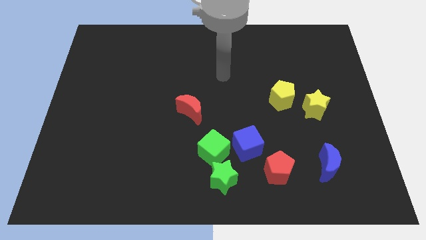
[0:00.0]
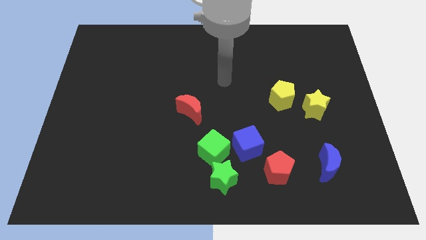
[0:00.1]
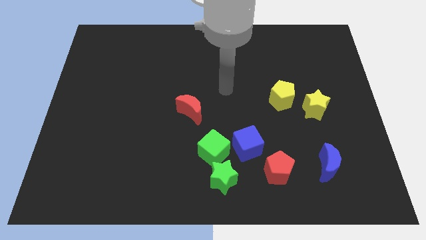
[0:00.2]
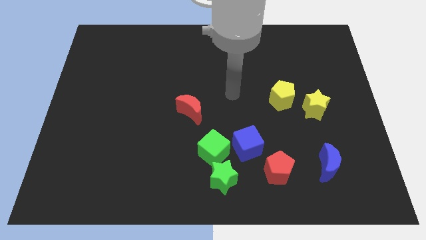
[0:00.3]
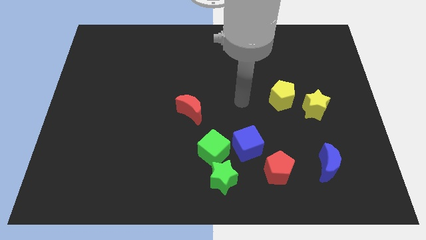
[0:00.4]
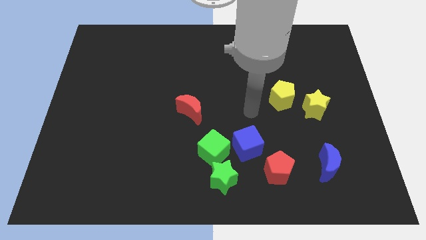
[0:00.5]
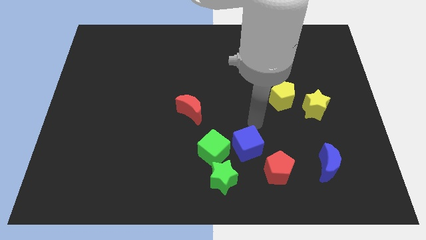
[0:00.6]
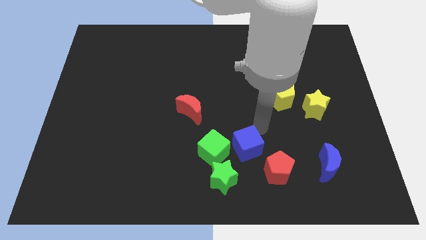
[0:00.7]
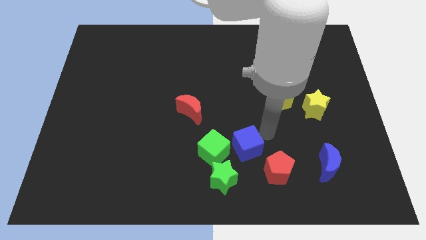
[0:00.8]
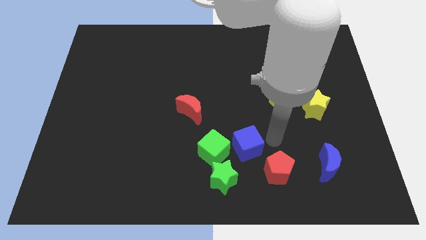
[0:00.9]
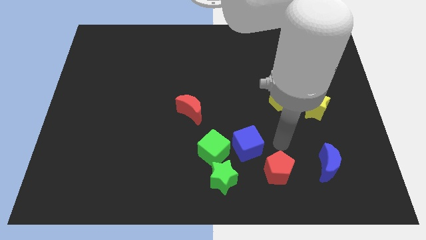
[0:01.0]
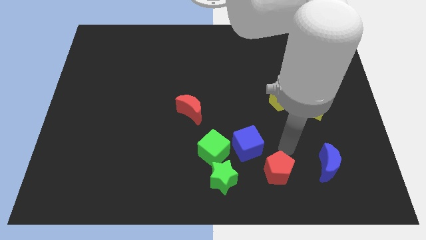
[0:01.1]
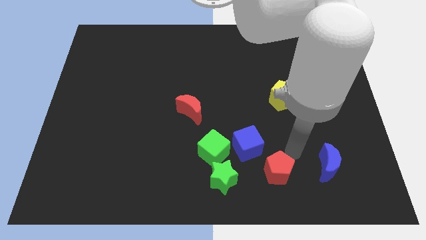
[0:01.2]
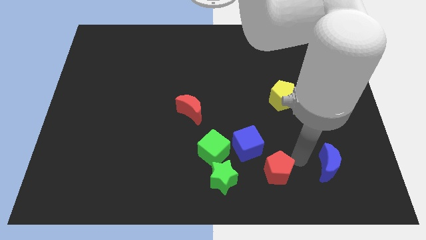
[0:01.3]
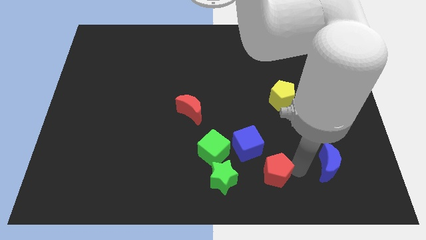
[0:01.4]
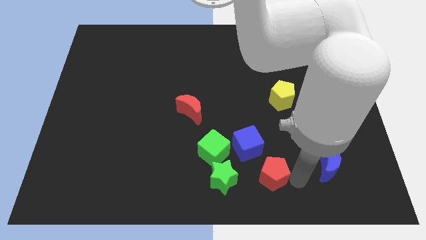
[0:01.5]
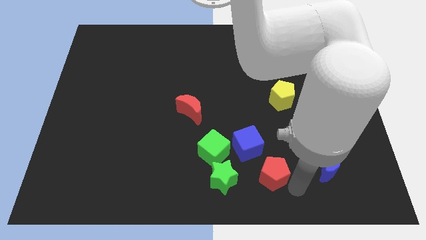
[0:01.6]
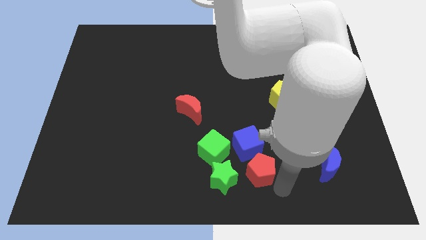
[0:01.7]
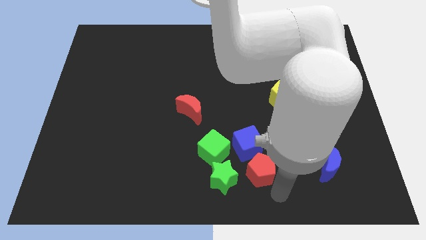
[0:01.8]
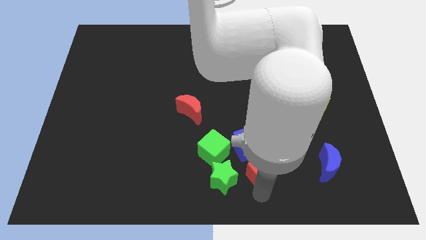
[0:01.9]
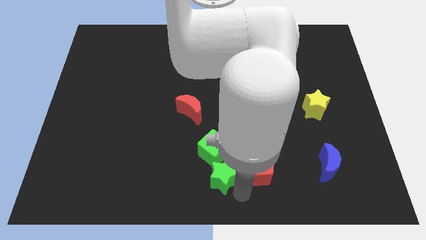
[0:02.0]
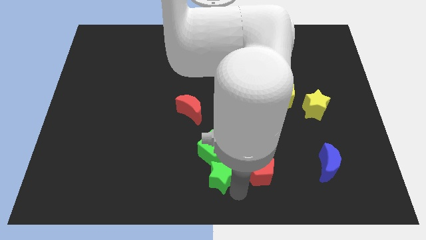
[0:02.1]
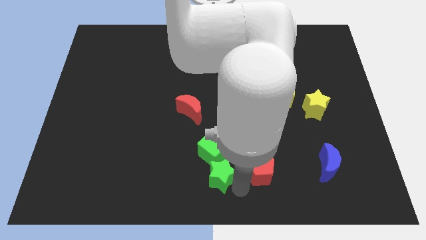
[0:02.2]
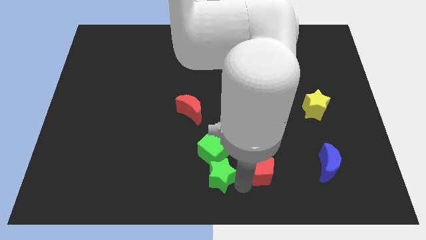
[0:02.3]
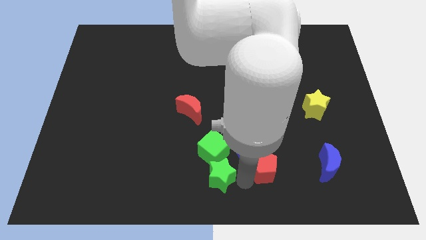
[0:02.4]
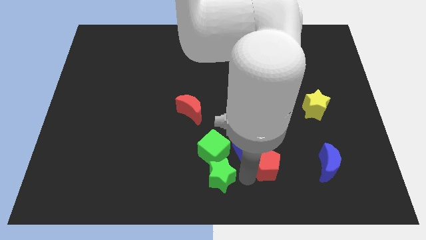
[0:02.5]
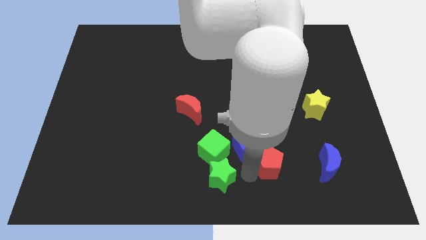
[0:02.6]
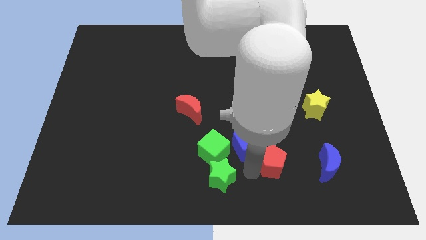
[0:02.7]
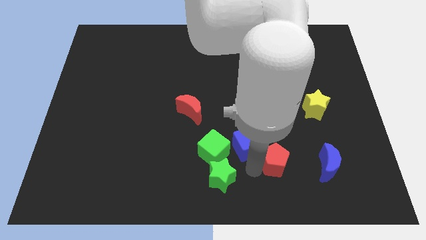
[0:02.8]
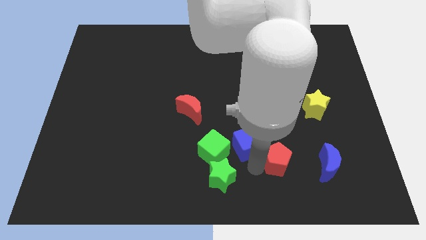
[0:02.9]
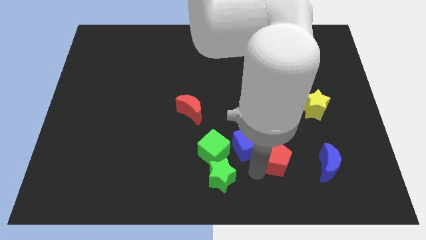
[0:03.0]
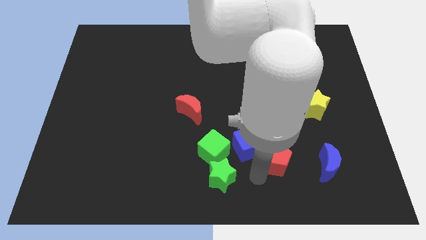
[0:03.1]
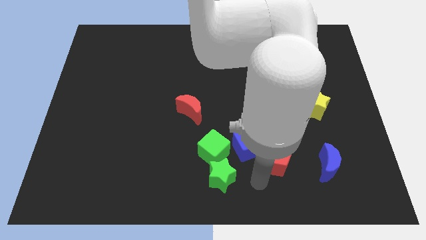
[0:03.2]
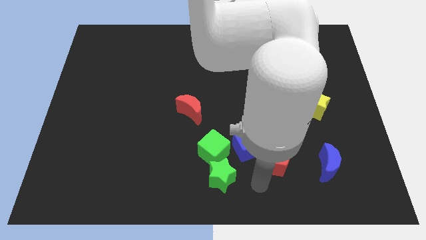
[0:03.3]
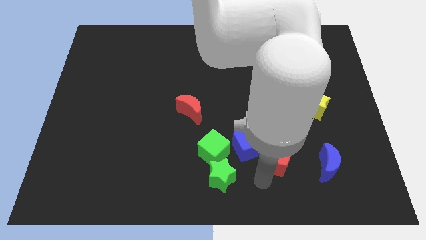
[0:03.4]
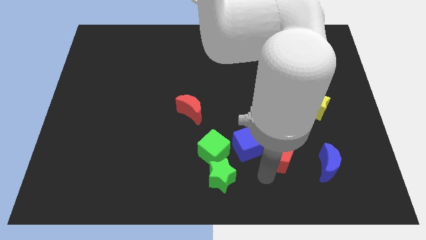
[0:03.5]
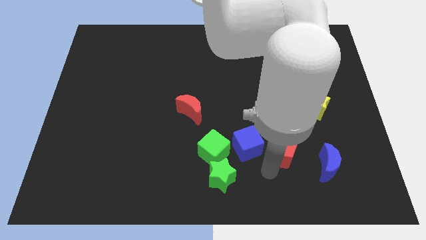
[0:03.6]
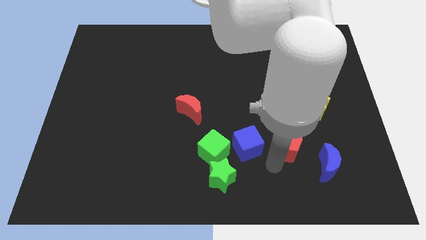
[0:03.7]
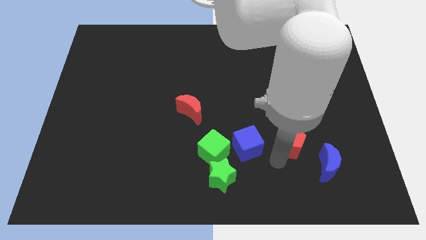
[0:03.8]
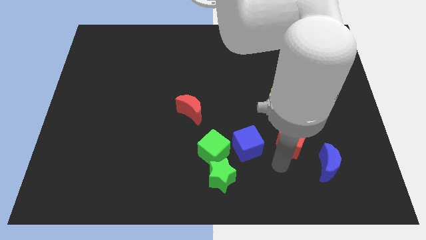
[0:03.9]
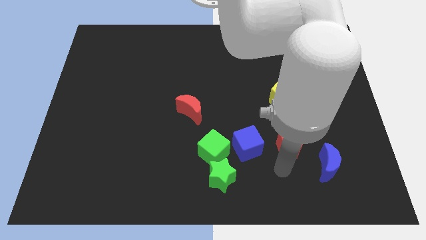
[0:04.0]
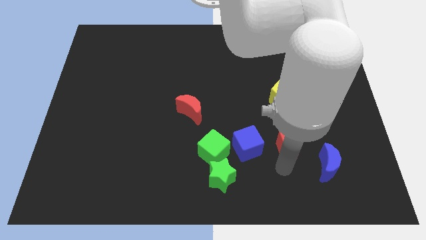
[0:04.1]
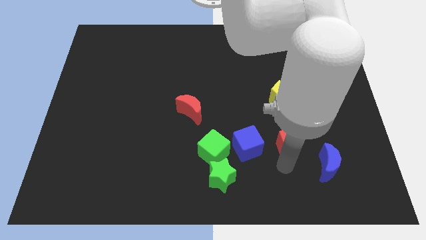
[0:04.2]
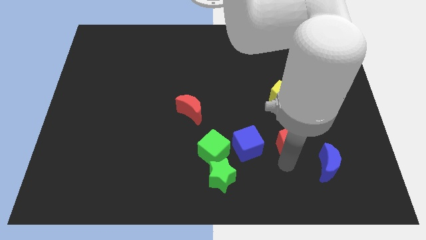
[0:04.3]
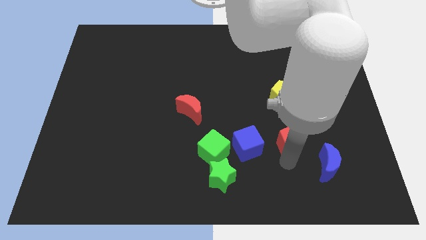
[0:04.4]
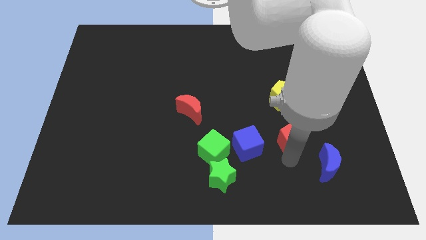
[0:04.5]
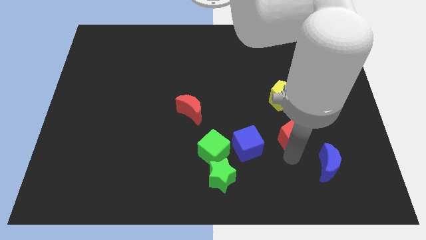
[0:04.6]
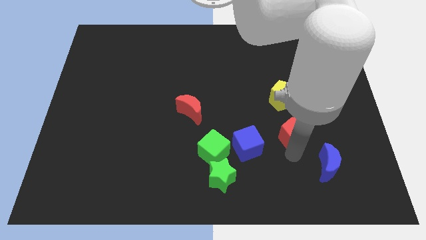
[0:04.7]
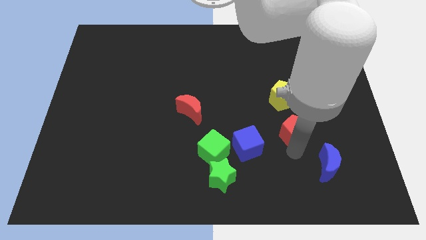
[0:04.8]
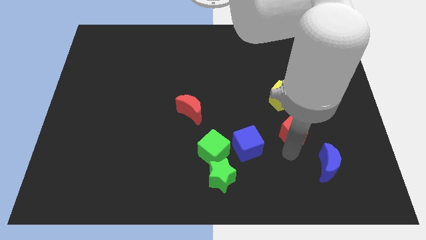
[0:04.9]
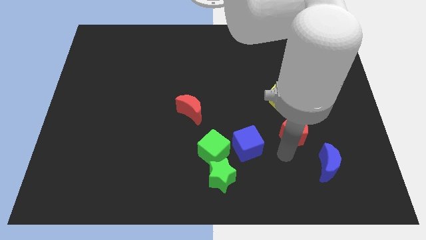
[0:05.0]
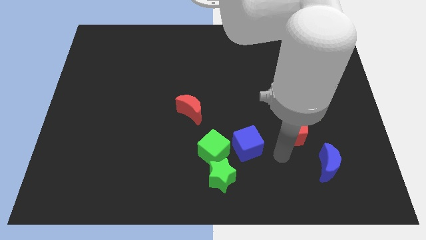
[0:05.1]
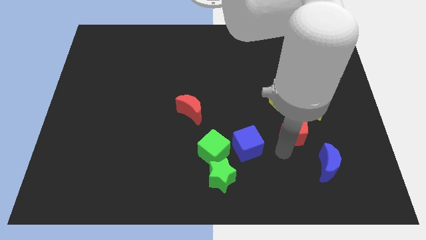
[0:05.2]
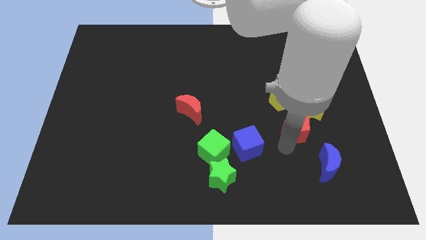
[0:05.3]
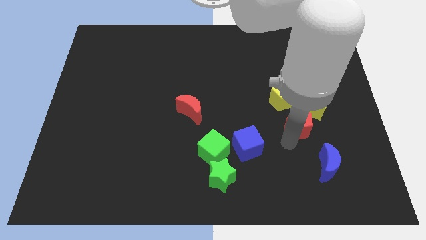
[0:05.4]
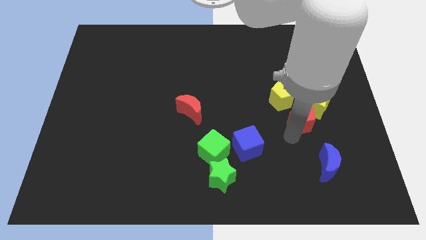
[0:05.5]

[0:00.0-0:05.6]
put the red pentagon towards the yellow star

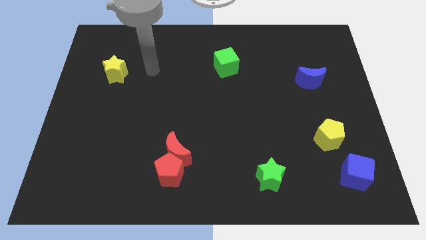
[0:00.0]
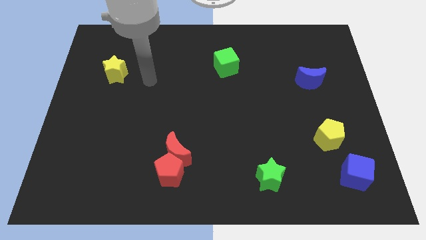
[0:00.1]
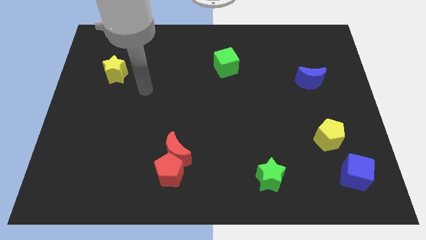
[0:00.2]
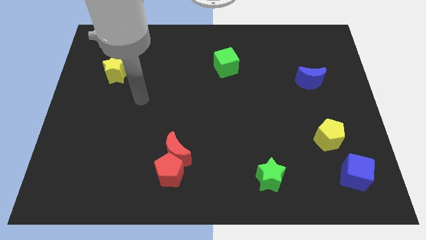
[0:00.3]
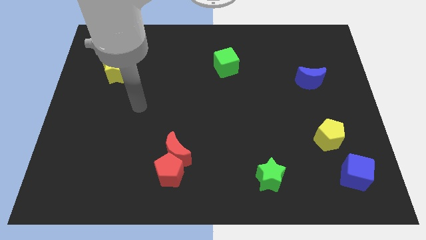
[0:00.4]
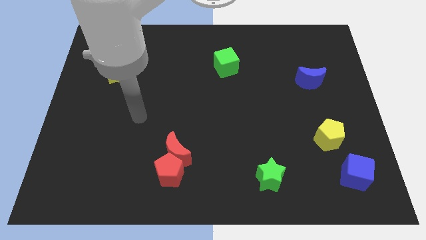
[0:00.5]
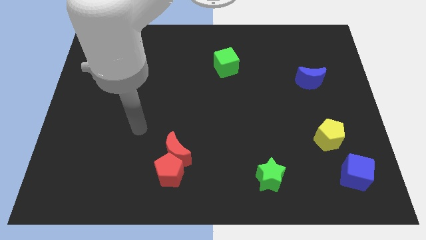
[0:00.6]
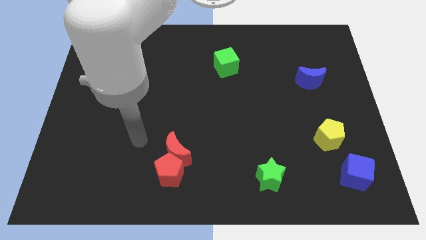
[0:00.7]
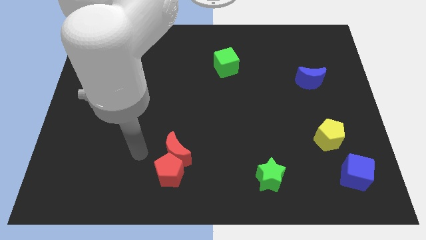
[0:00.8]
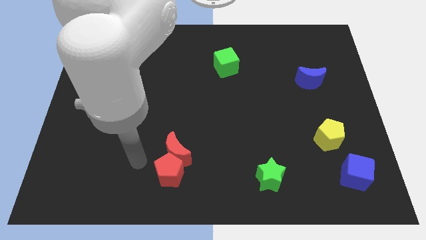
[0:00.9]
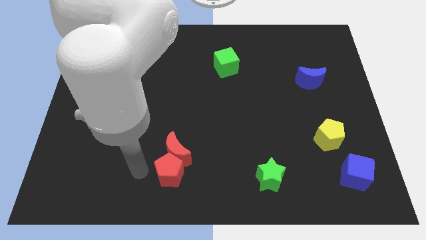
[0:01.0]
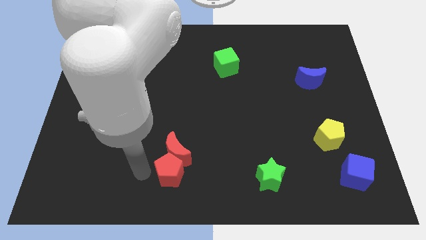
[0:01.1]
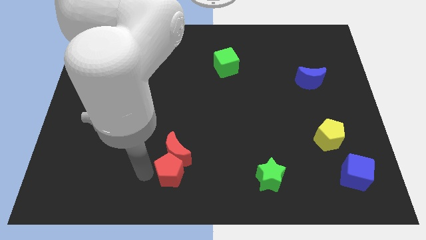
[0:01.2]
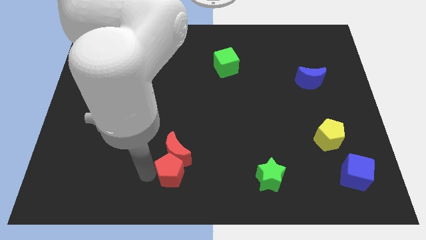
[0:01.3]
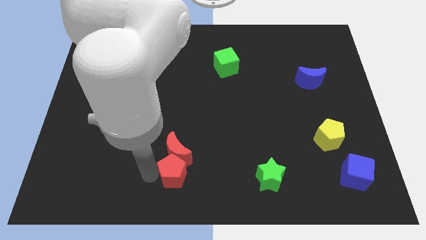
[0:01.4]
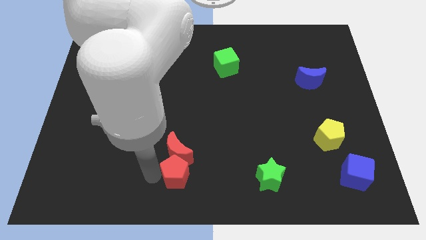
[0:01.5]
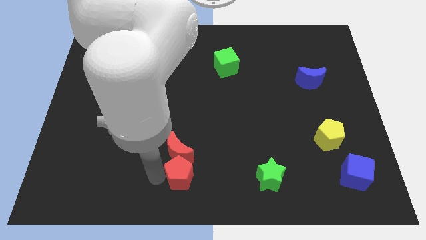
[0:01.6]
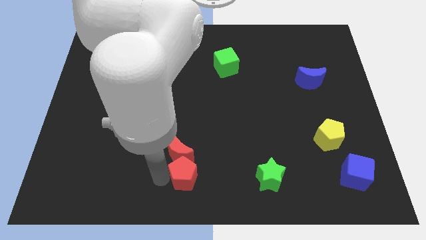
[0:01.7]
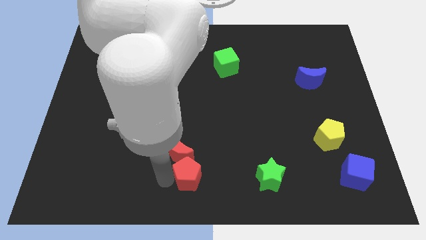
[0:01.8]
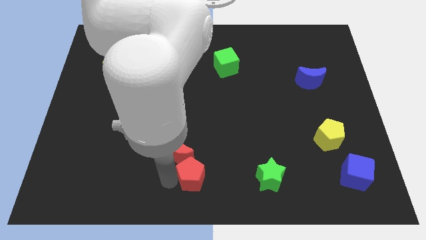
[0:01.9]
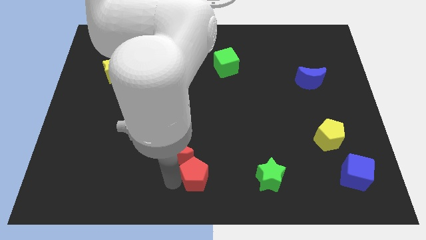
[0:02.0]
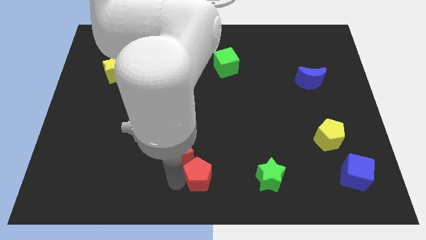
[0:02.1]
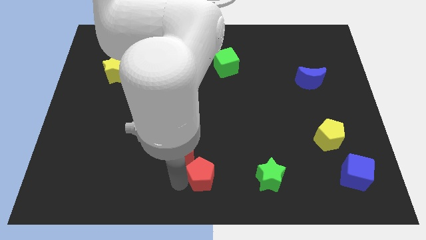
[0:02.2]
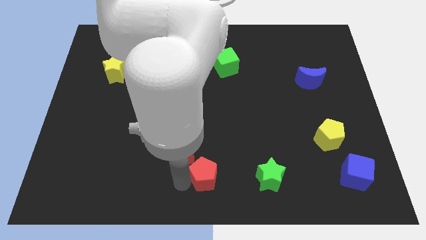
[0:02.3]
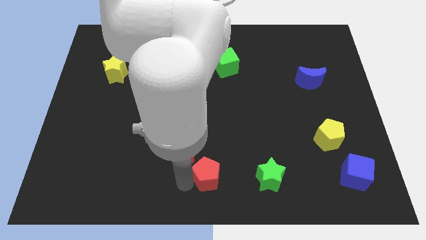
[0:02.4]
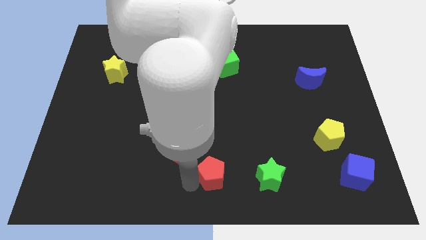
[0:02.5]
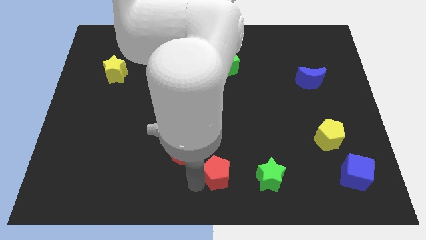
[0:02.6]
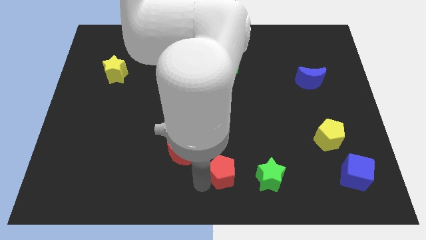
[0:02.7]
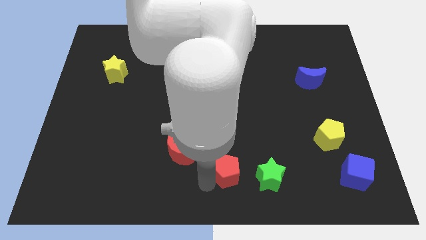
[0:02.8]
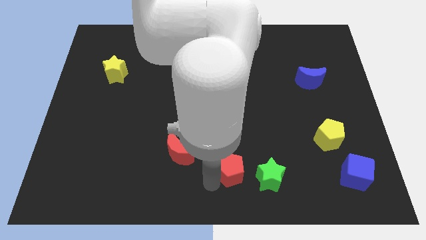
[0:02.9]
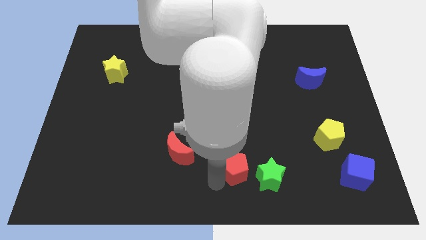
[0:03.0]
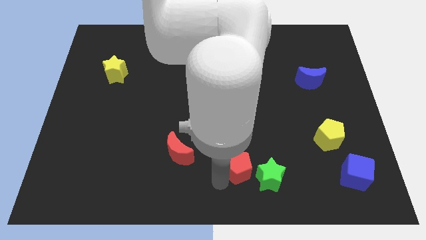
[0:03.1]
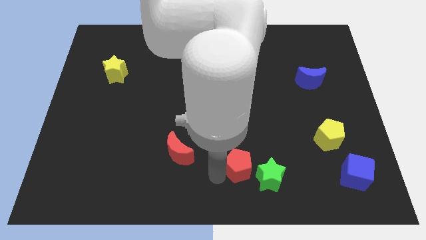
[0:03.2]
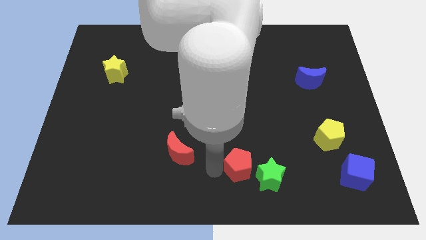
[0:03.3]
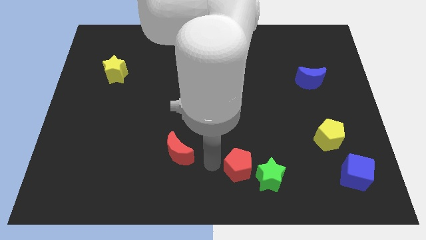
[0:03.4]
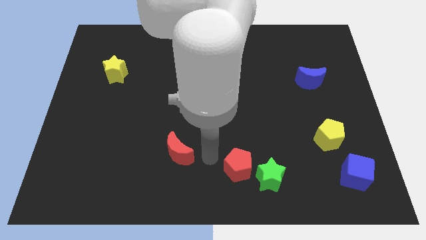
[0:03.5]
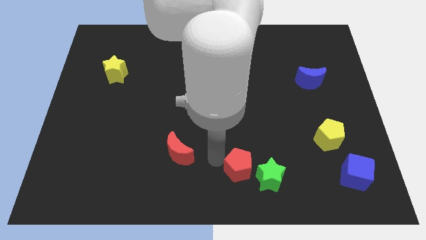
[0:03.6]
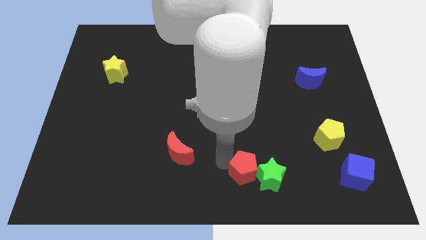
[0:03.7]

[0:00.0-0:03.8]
put the red pentagon next to the green star
